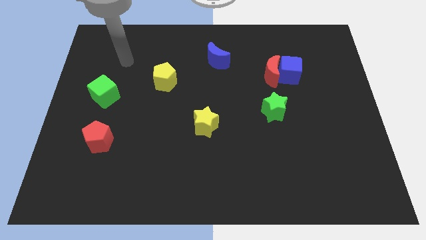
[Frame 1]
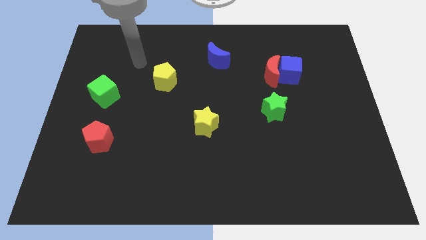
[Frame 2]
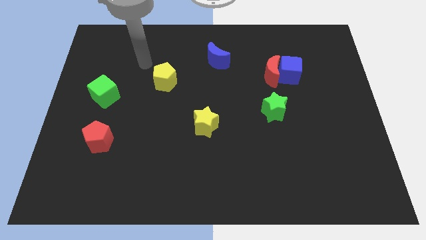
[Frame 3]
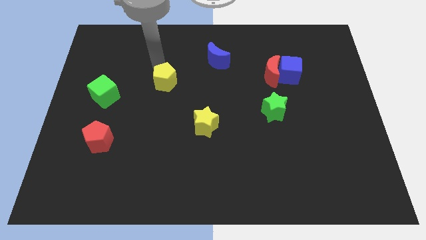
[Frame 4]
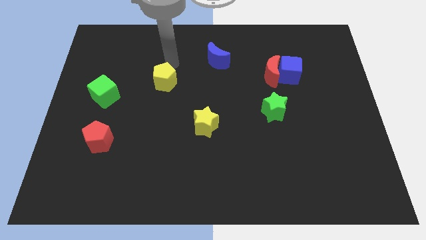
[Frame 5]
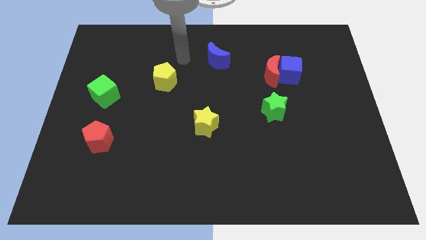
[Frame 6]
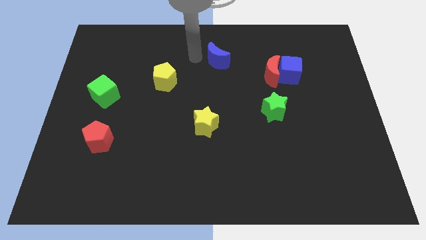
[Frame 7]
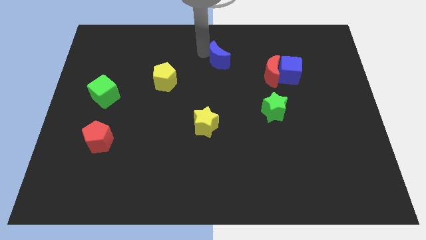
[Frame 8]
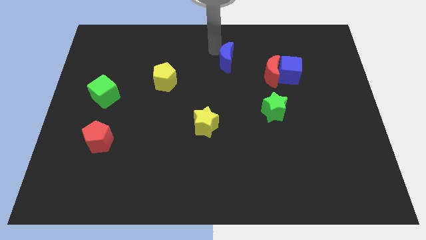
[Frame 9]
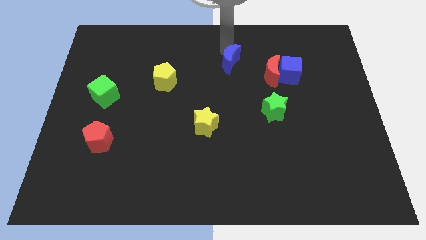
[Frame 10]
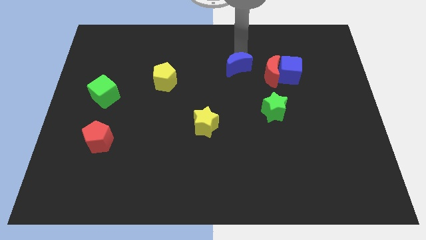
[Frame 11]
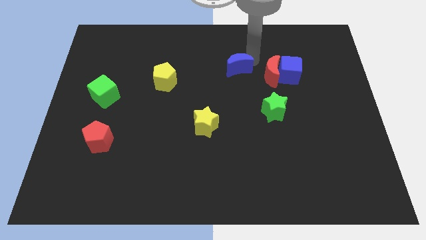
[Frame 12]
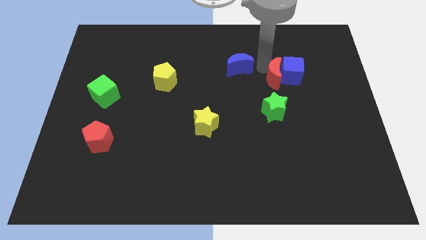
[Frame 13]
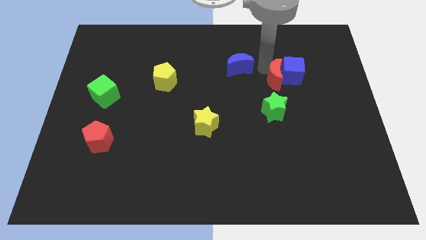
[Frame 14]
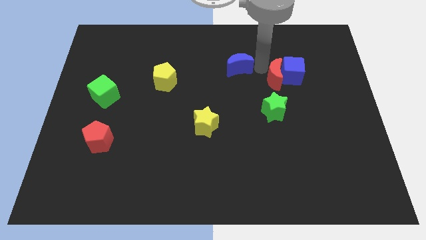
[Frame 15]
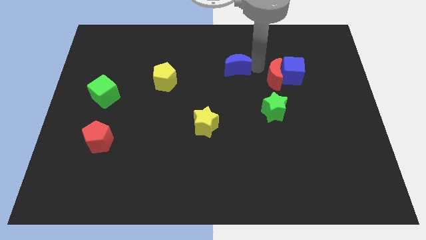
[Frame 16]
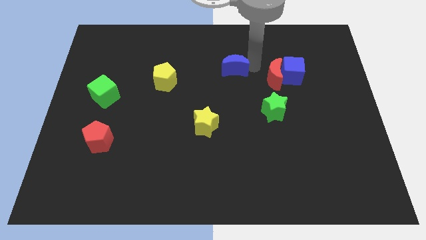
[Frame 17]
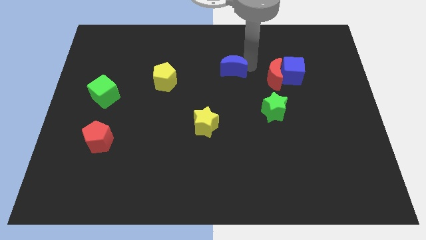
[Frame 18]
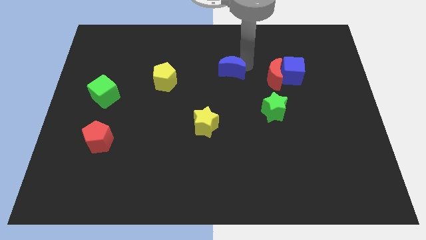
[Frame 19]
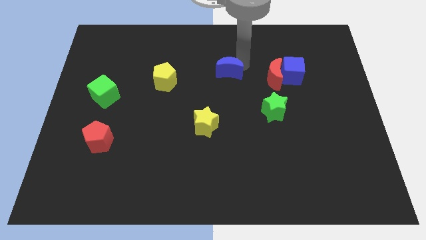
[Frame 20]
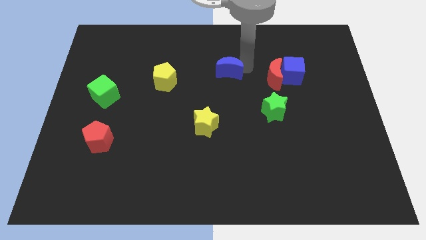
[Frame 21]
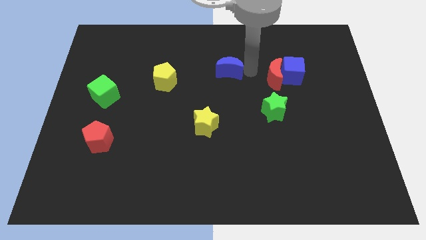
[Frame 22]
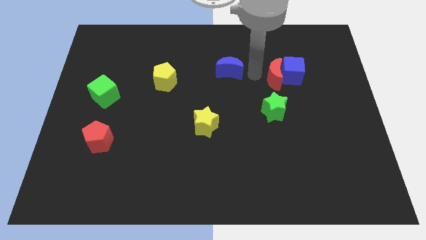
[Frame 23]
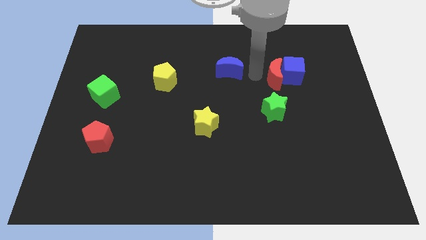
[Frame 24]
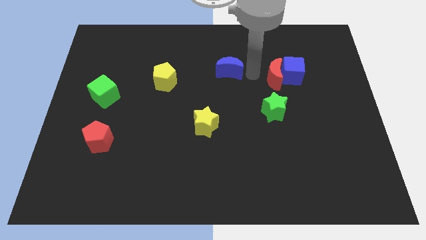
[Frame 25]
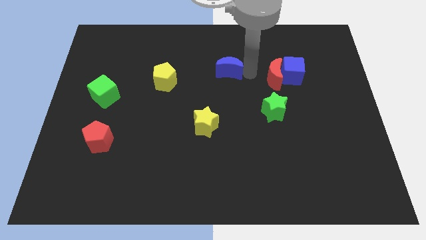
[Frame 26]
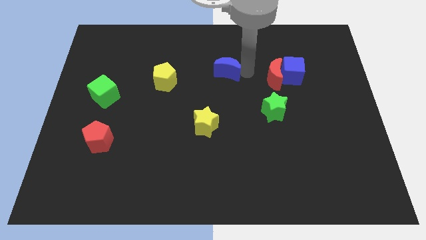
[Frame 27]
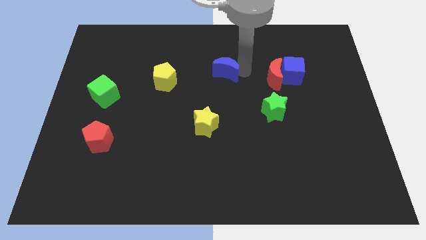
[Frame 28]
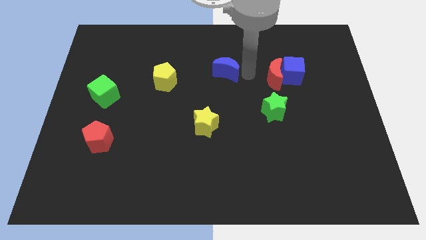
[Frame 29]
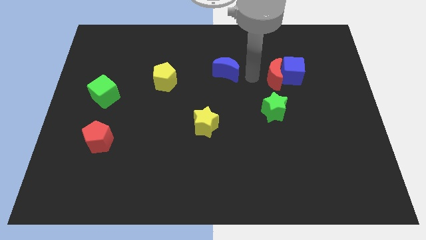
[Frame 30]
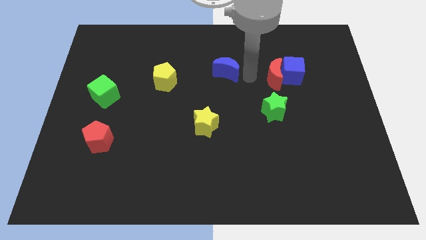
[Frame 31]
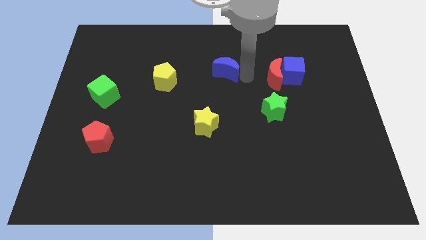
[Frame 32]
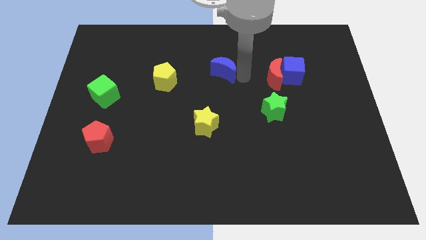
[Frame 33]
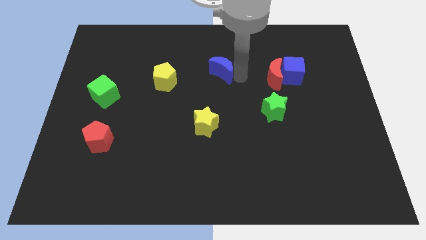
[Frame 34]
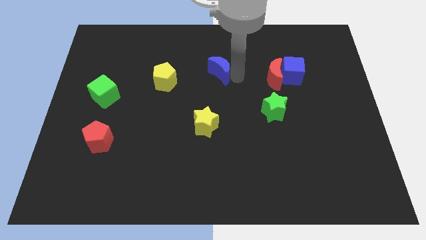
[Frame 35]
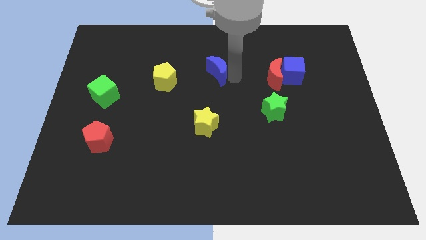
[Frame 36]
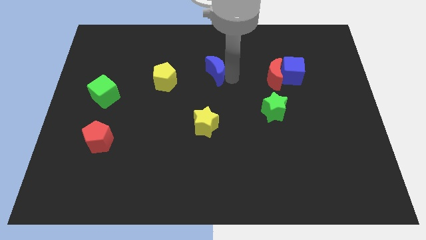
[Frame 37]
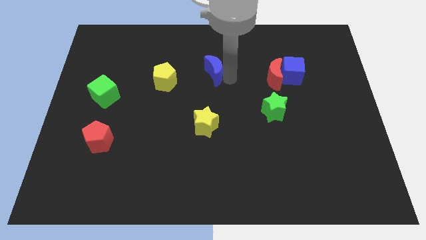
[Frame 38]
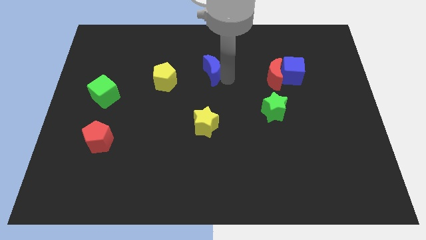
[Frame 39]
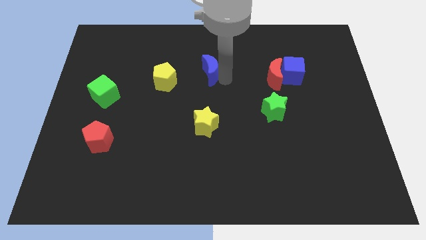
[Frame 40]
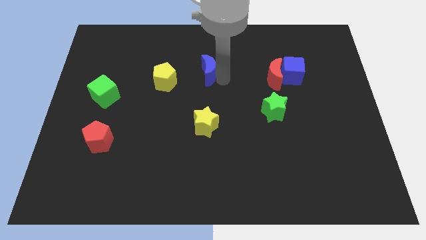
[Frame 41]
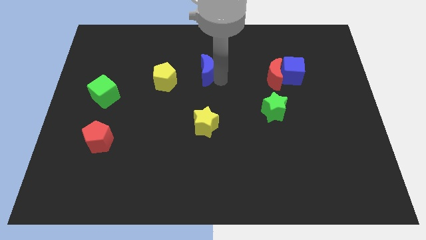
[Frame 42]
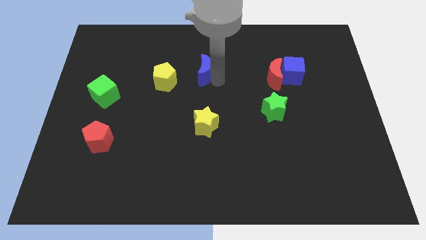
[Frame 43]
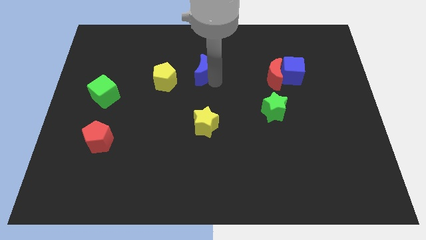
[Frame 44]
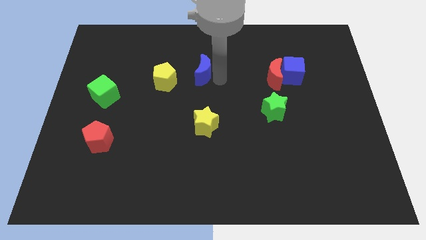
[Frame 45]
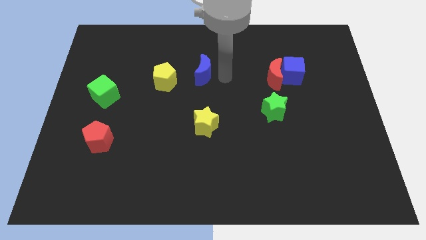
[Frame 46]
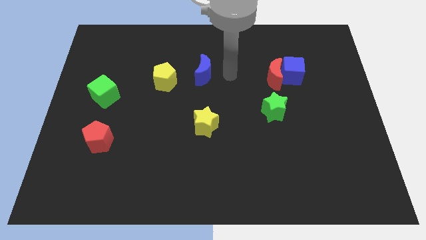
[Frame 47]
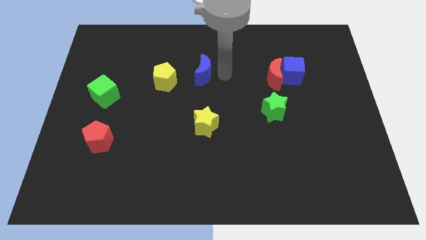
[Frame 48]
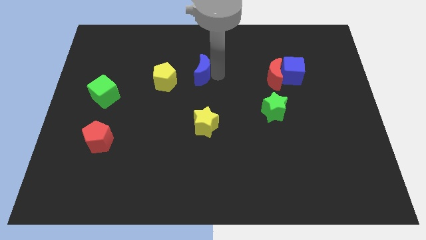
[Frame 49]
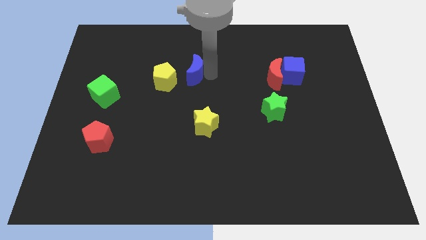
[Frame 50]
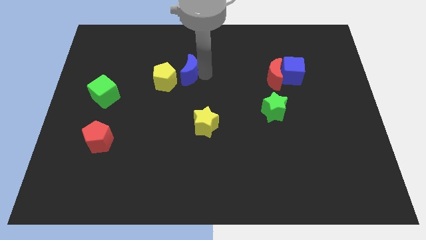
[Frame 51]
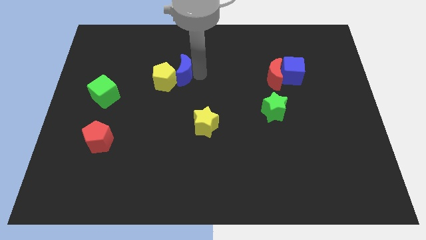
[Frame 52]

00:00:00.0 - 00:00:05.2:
move the blue moon to the yellow pentagon

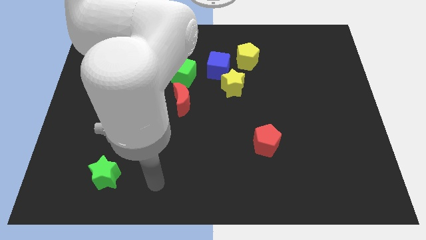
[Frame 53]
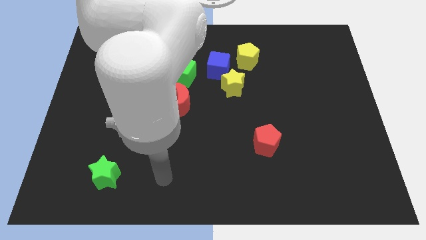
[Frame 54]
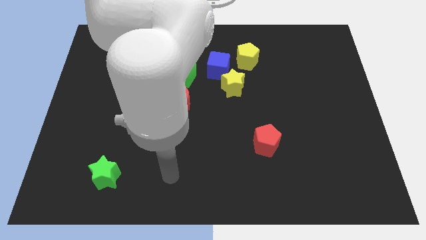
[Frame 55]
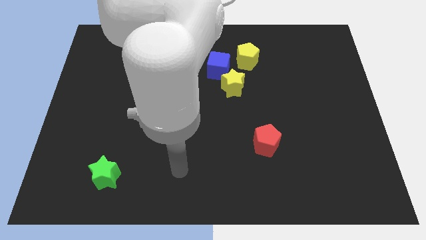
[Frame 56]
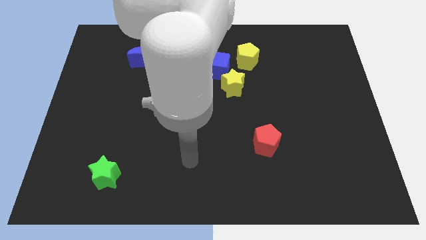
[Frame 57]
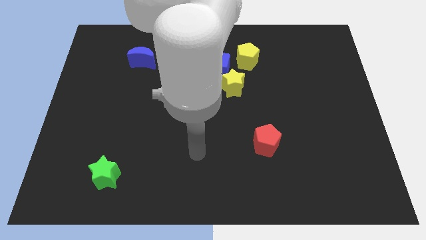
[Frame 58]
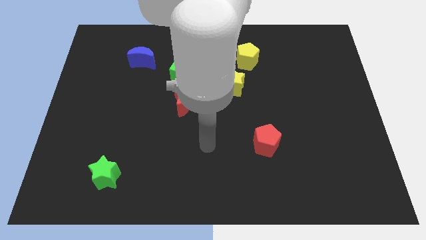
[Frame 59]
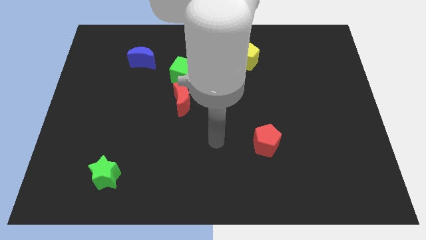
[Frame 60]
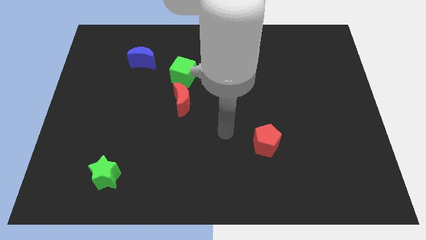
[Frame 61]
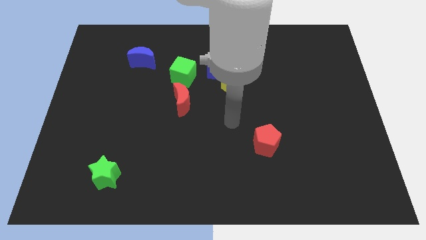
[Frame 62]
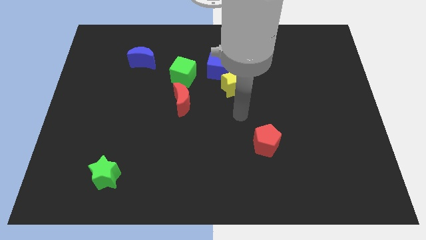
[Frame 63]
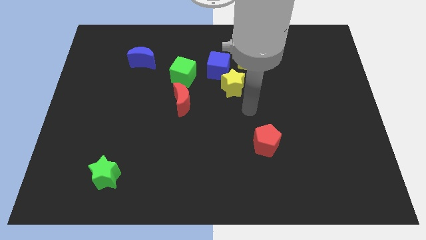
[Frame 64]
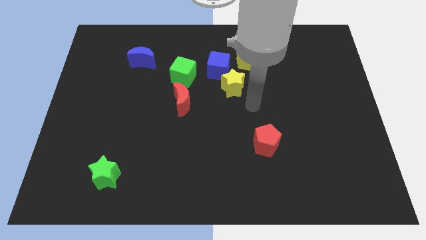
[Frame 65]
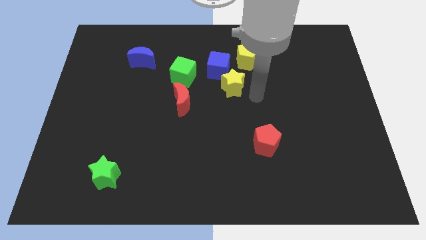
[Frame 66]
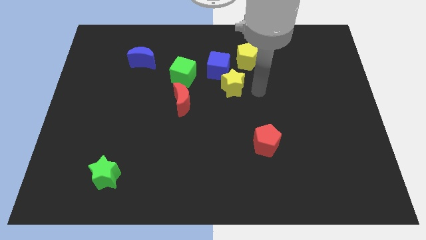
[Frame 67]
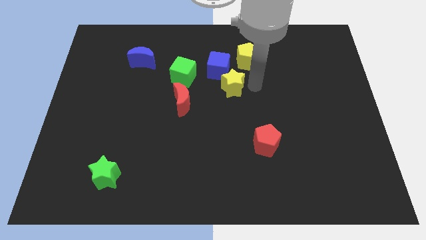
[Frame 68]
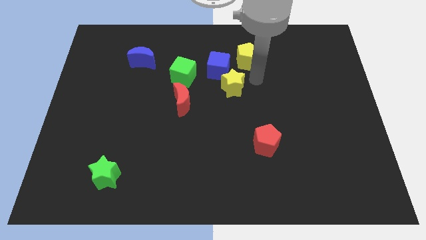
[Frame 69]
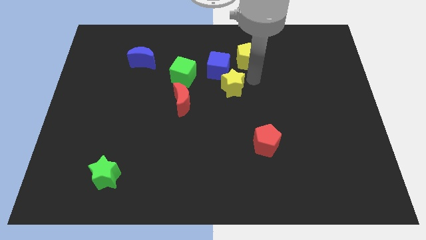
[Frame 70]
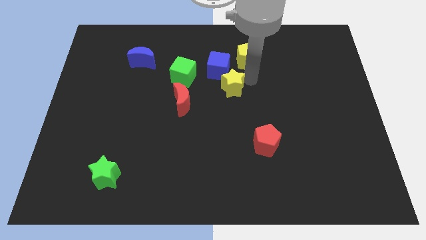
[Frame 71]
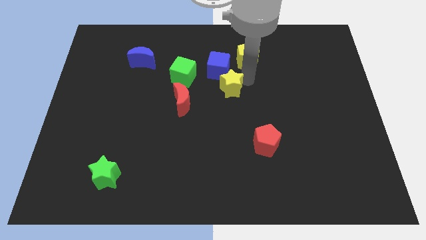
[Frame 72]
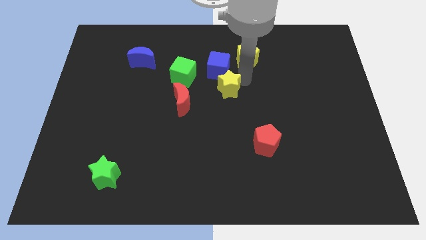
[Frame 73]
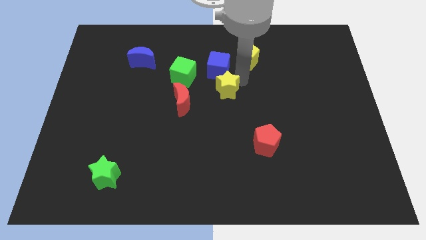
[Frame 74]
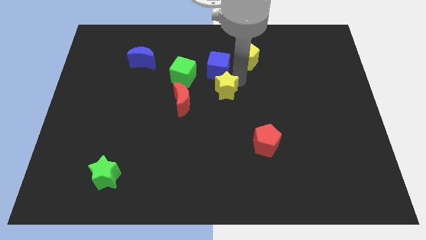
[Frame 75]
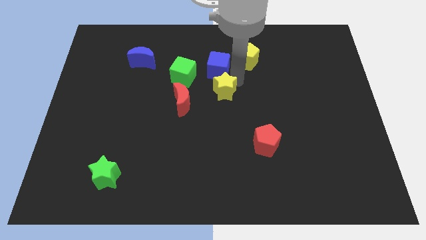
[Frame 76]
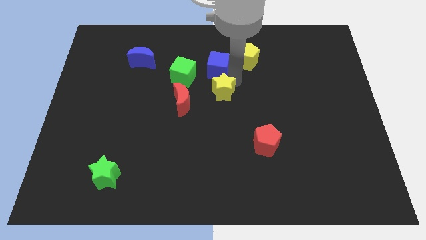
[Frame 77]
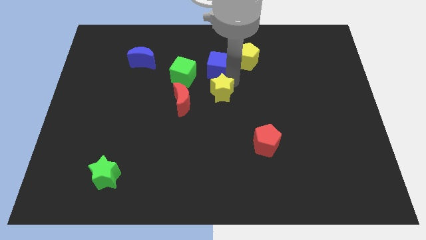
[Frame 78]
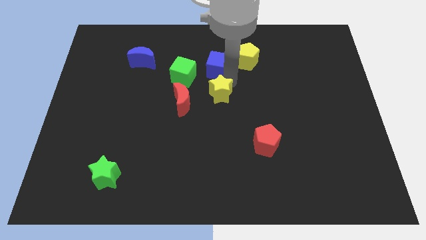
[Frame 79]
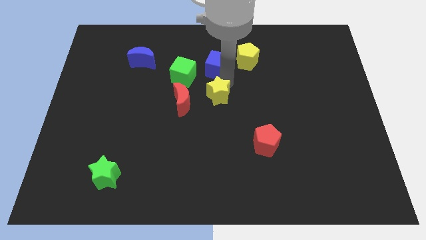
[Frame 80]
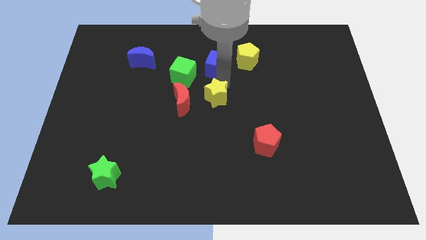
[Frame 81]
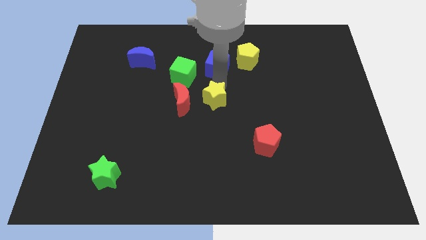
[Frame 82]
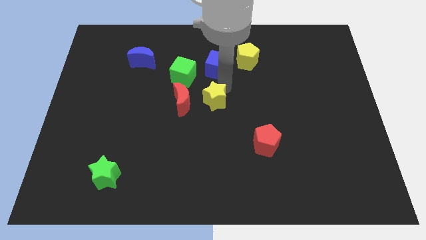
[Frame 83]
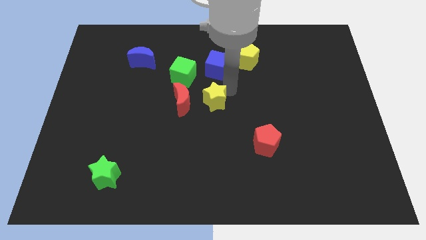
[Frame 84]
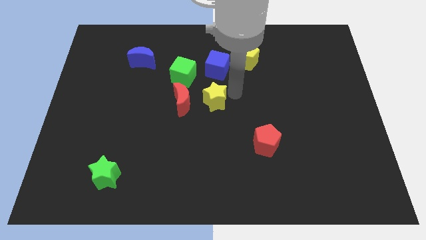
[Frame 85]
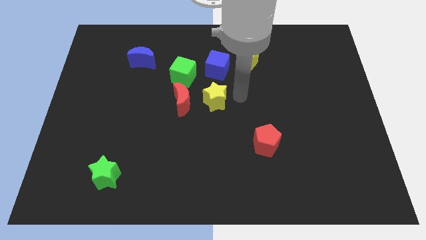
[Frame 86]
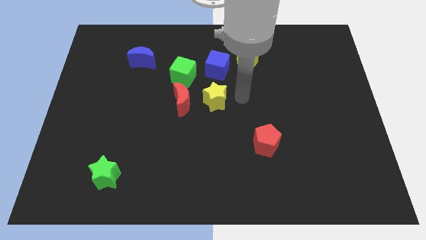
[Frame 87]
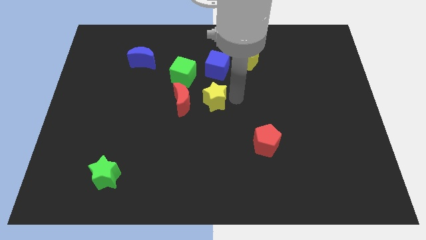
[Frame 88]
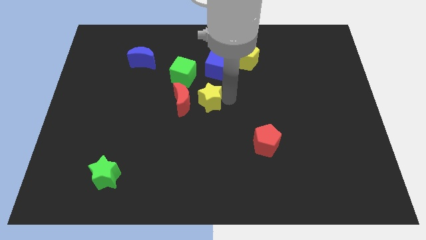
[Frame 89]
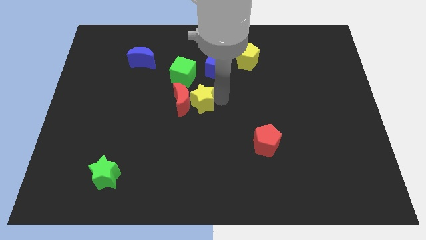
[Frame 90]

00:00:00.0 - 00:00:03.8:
move the yellow star to the red moon
